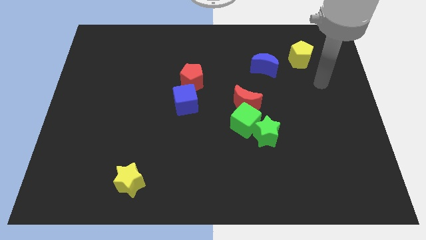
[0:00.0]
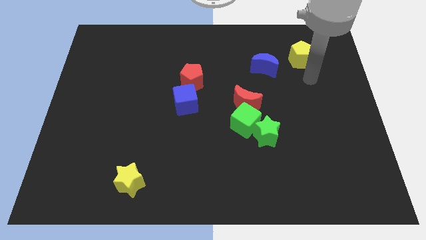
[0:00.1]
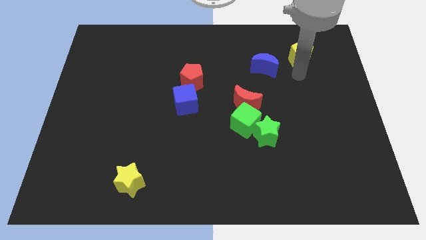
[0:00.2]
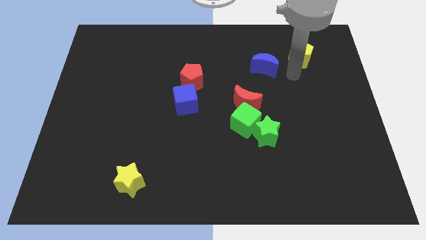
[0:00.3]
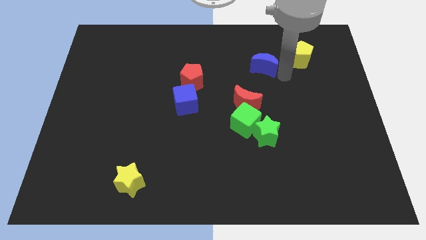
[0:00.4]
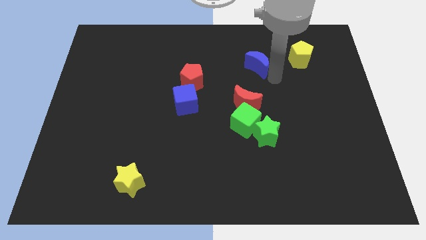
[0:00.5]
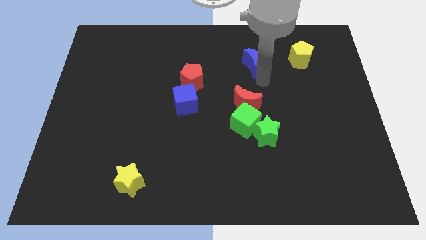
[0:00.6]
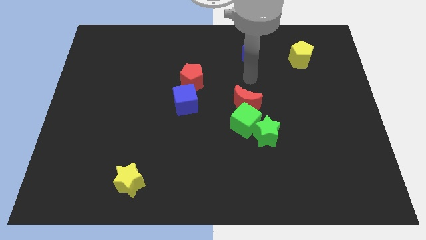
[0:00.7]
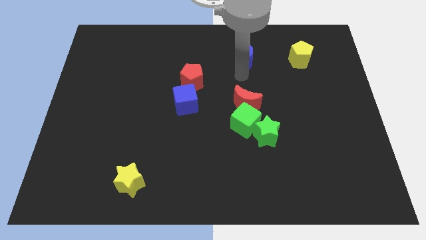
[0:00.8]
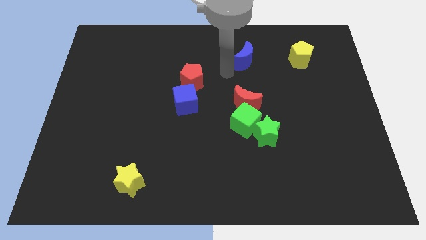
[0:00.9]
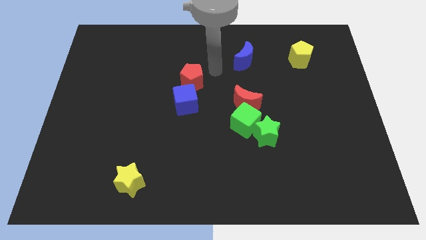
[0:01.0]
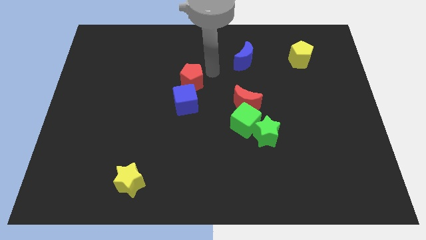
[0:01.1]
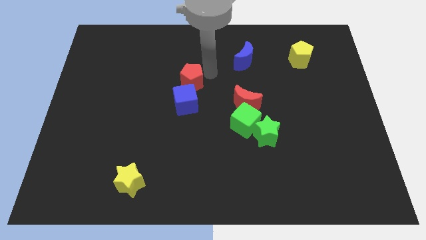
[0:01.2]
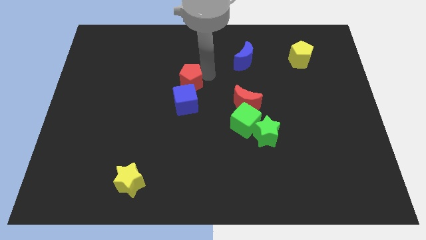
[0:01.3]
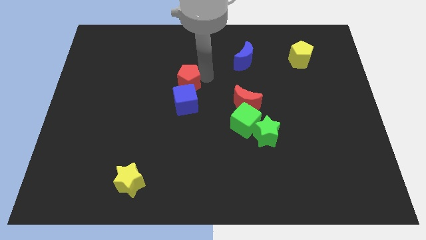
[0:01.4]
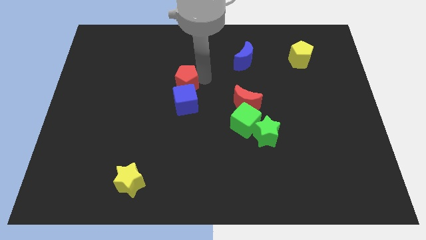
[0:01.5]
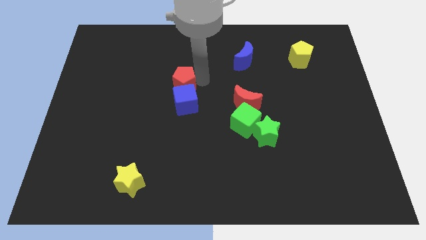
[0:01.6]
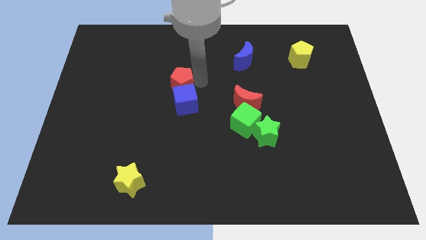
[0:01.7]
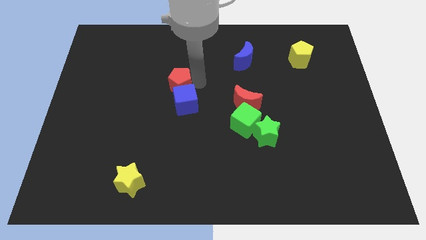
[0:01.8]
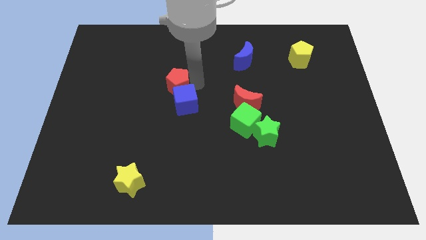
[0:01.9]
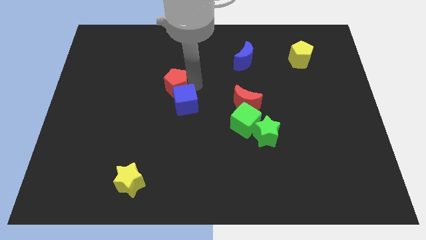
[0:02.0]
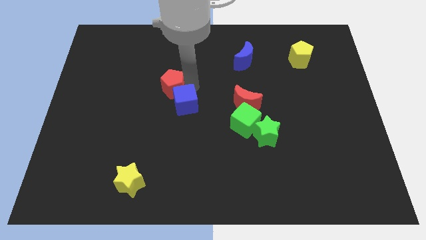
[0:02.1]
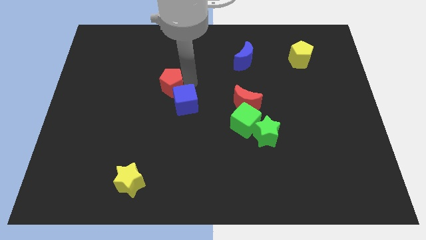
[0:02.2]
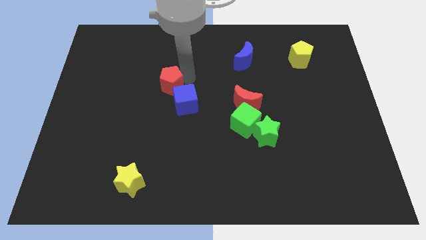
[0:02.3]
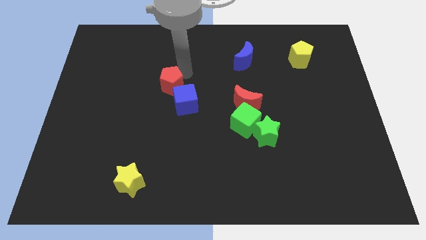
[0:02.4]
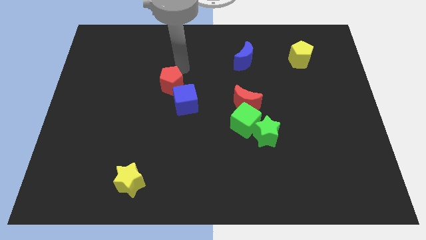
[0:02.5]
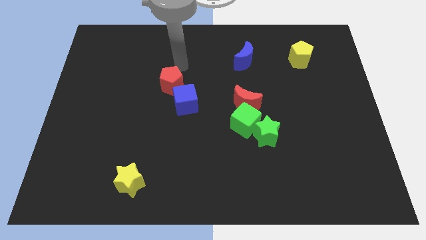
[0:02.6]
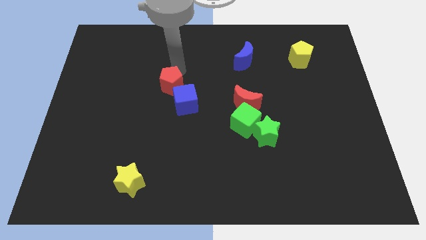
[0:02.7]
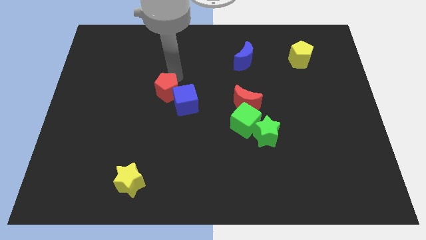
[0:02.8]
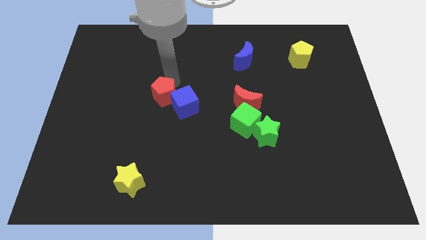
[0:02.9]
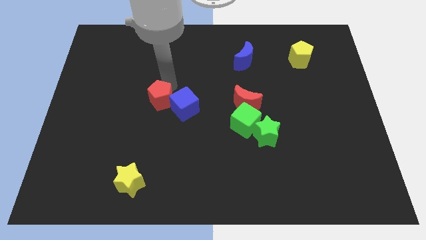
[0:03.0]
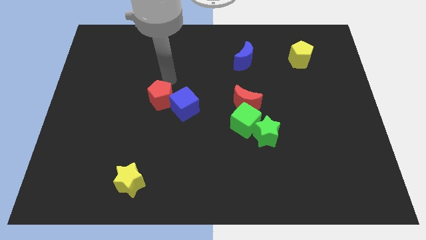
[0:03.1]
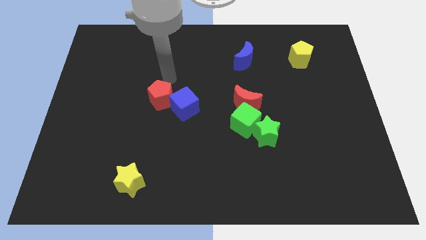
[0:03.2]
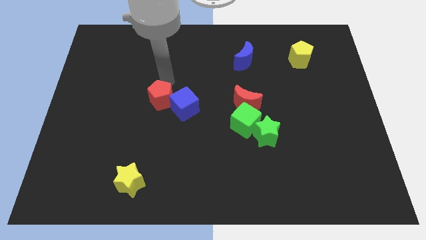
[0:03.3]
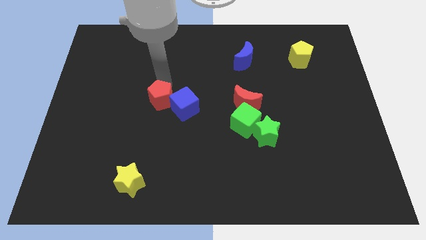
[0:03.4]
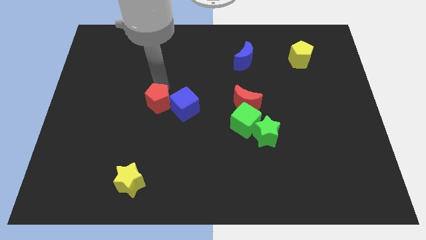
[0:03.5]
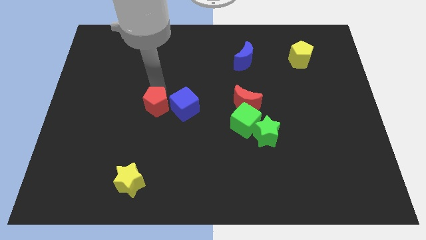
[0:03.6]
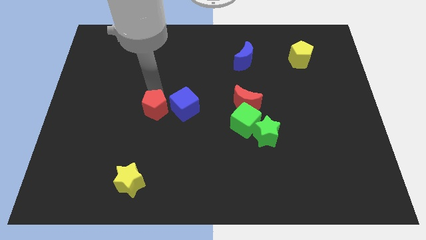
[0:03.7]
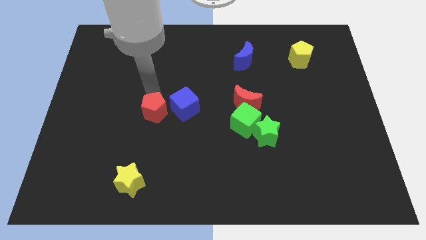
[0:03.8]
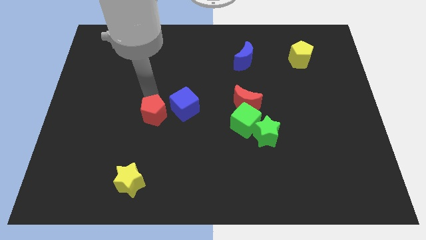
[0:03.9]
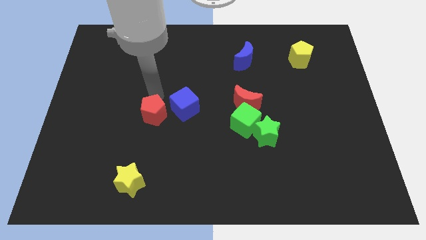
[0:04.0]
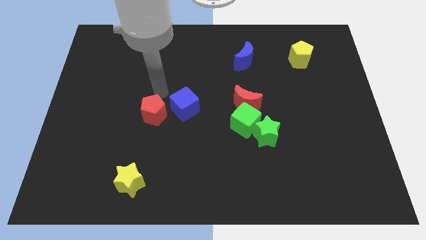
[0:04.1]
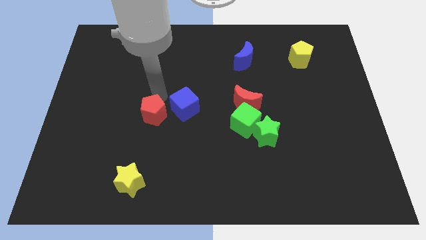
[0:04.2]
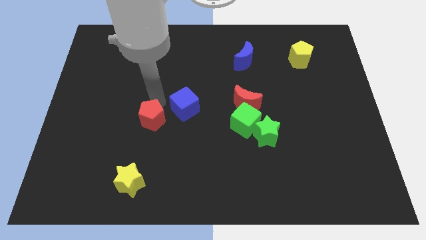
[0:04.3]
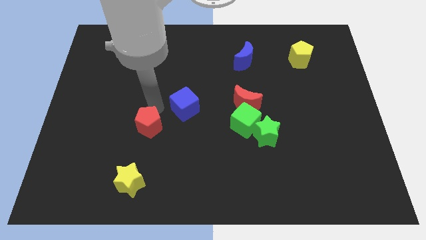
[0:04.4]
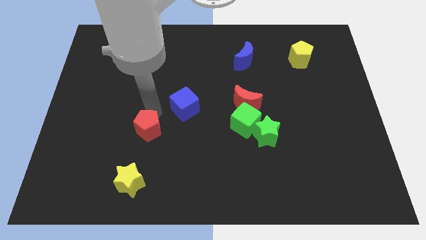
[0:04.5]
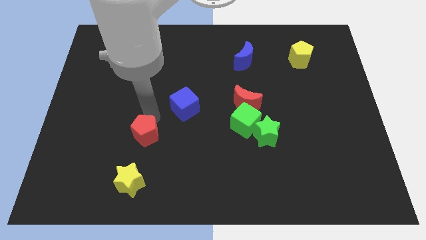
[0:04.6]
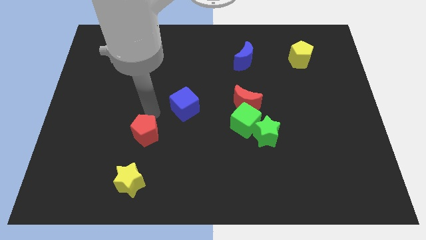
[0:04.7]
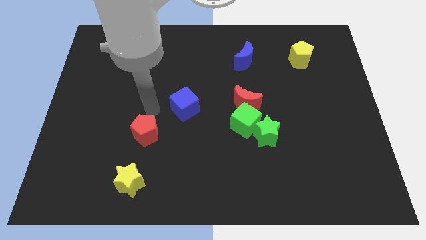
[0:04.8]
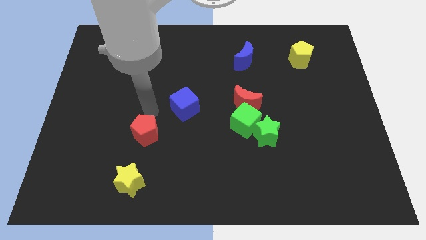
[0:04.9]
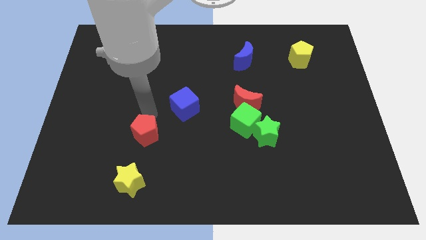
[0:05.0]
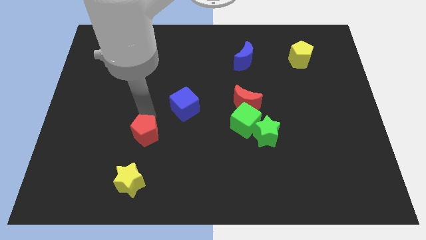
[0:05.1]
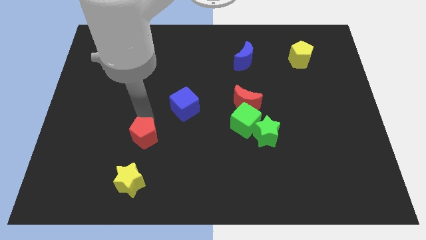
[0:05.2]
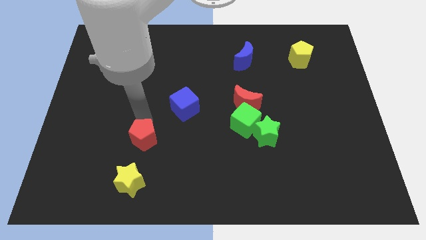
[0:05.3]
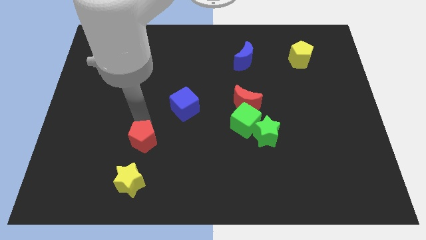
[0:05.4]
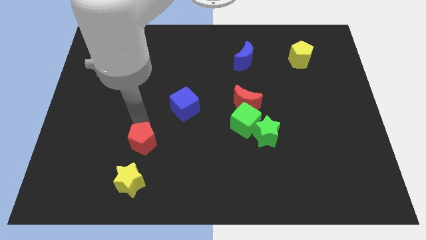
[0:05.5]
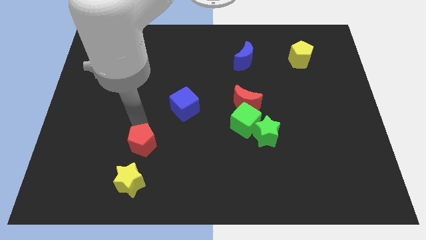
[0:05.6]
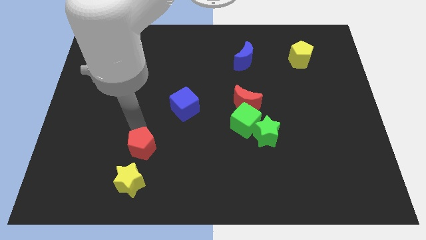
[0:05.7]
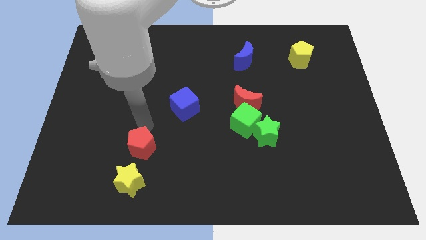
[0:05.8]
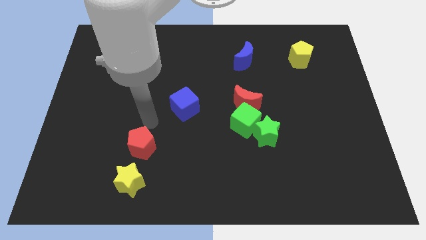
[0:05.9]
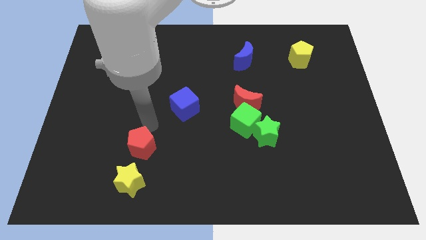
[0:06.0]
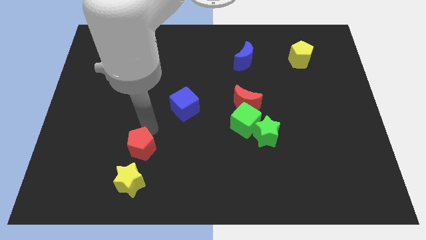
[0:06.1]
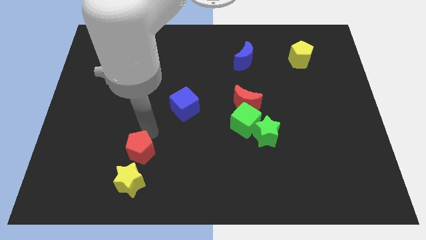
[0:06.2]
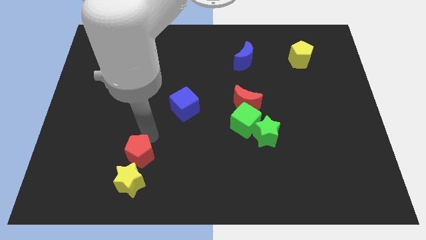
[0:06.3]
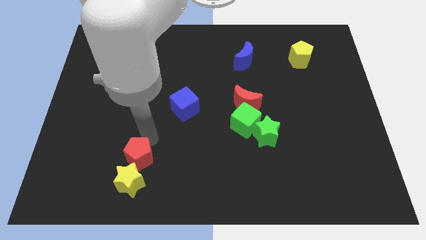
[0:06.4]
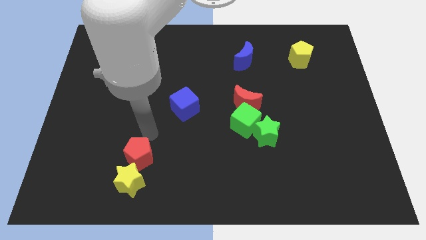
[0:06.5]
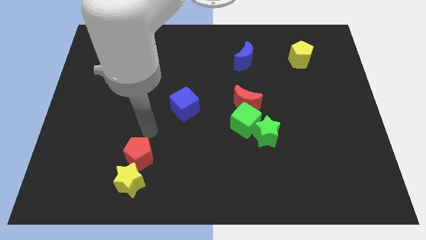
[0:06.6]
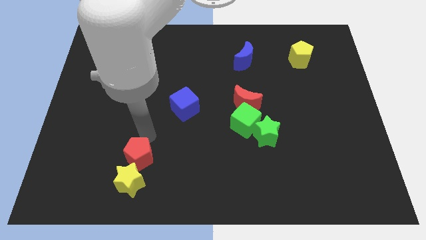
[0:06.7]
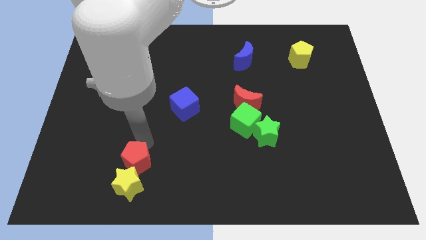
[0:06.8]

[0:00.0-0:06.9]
move the red pentagon towards the yellow star

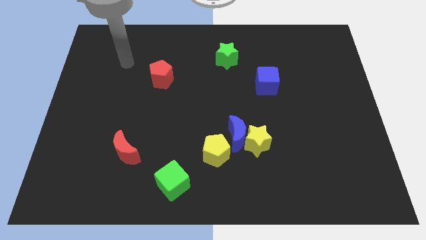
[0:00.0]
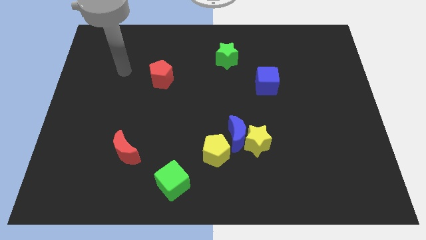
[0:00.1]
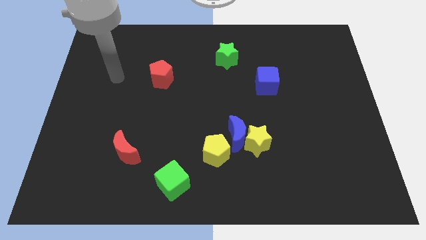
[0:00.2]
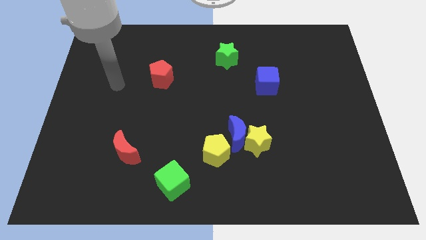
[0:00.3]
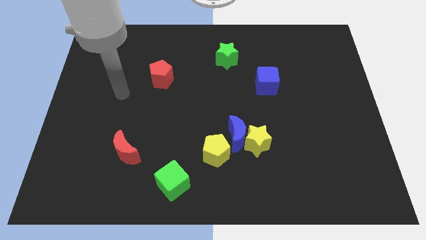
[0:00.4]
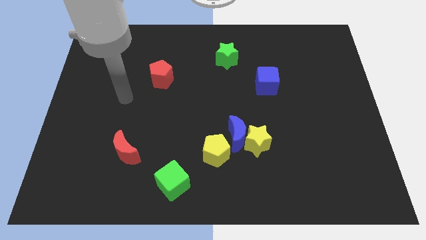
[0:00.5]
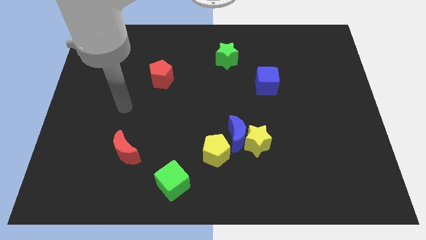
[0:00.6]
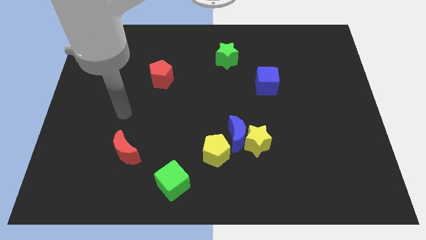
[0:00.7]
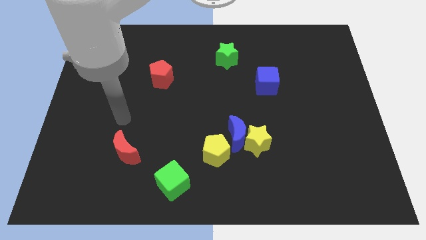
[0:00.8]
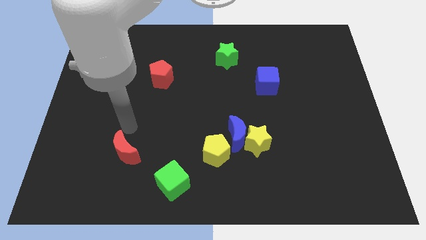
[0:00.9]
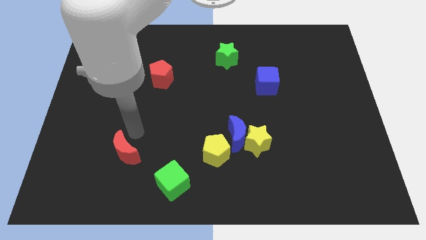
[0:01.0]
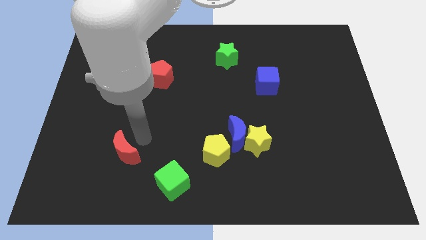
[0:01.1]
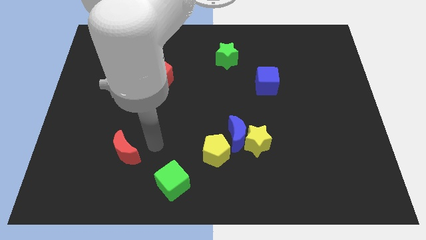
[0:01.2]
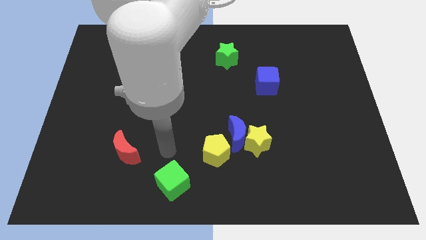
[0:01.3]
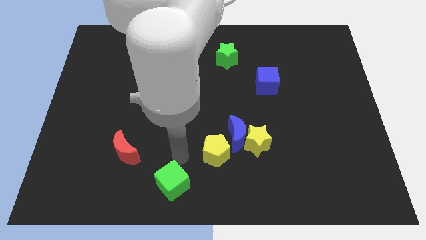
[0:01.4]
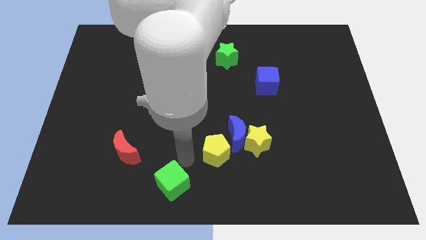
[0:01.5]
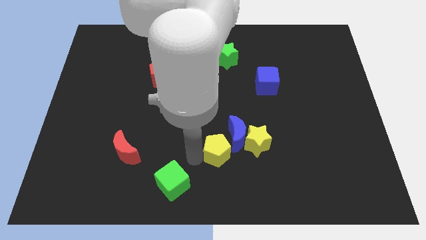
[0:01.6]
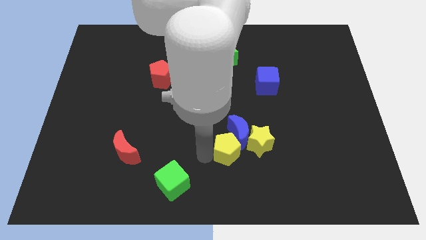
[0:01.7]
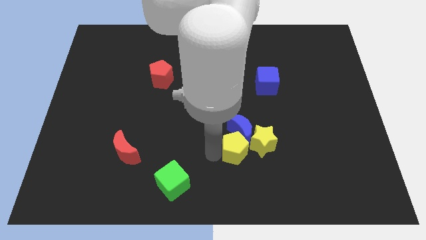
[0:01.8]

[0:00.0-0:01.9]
put the yellow pentagon next to the yellow star
